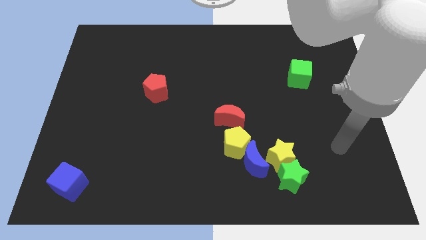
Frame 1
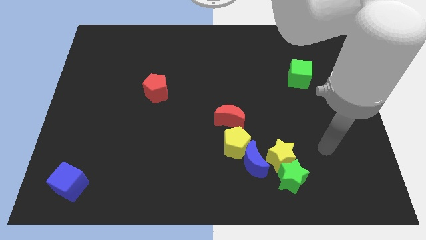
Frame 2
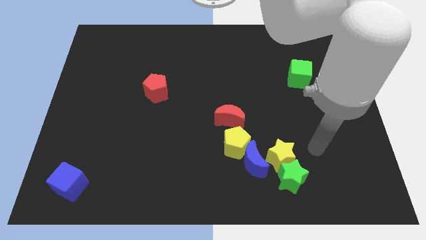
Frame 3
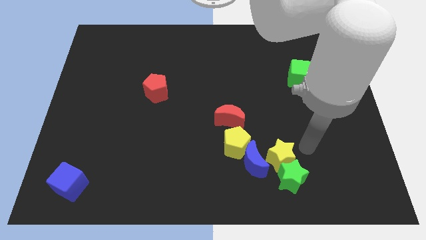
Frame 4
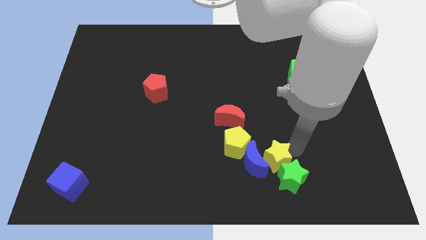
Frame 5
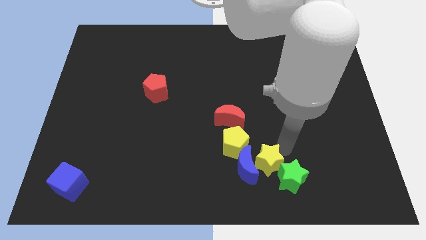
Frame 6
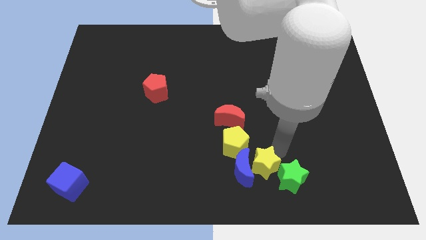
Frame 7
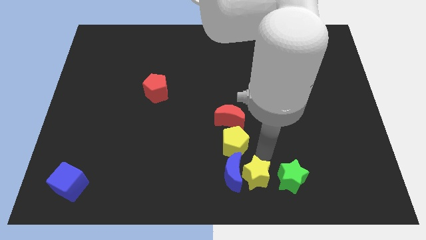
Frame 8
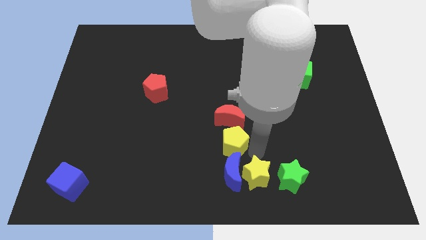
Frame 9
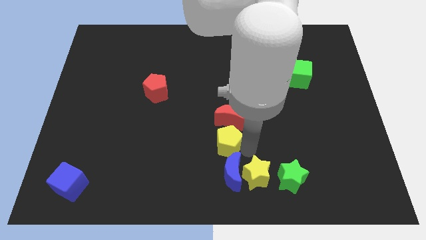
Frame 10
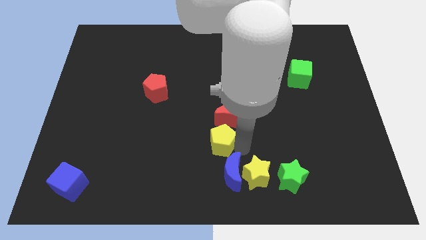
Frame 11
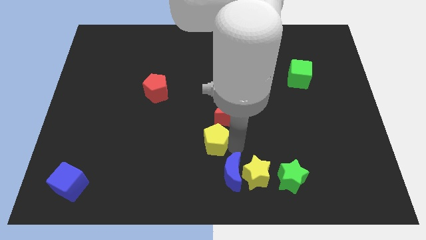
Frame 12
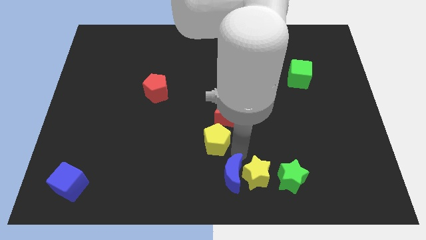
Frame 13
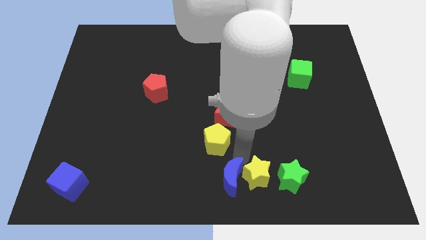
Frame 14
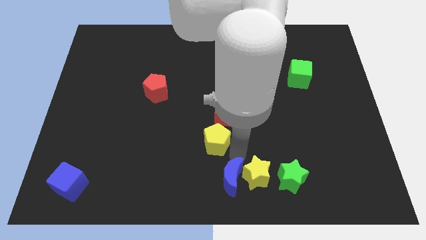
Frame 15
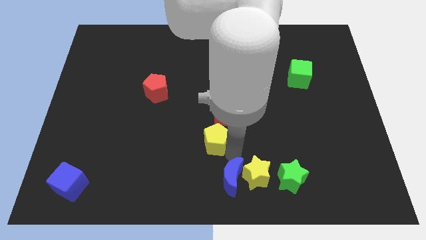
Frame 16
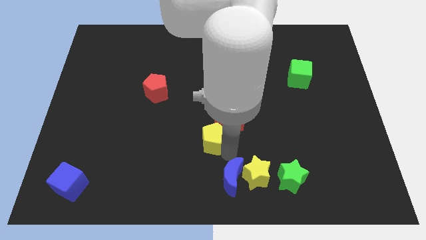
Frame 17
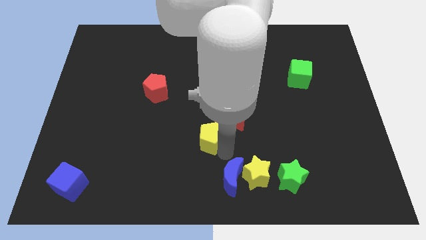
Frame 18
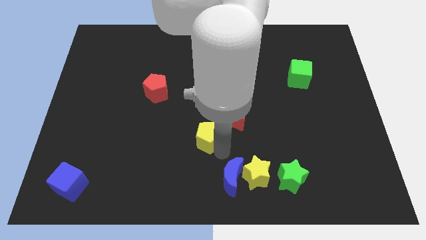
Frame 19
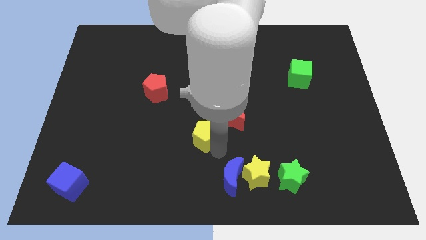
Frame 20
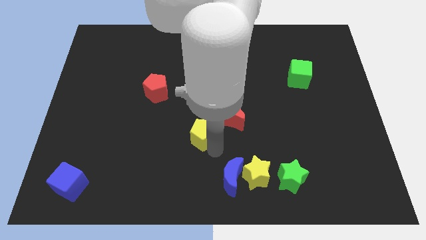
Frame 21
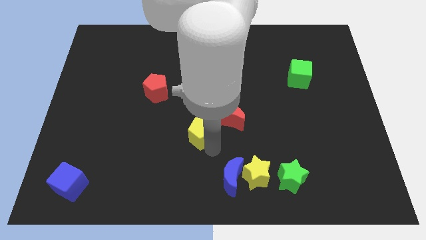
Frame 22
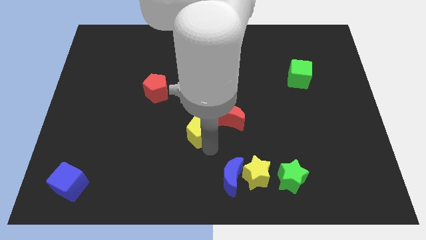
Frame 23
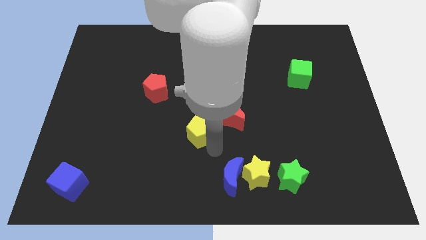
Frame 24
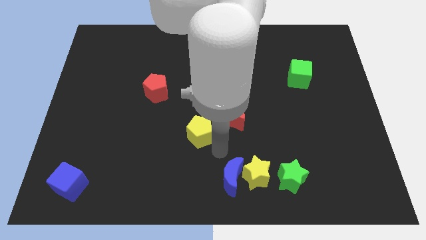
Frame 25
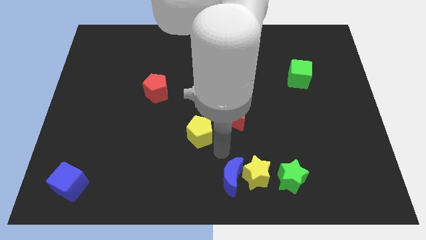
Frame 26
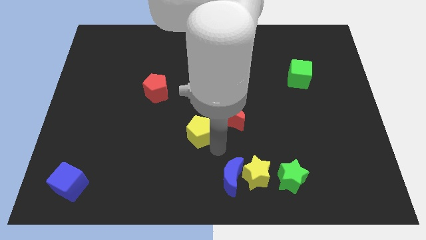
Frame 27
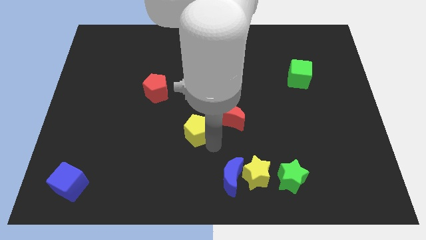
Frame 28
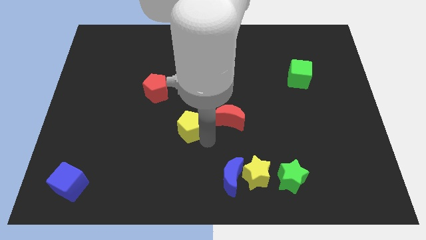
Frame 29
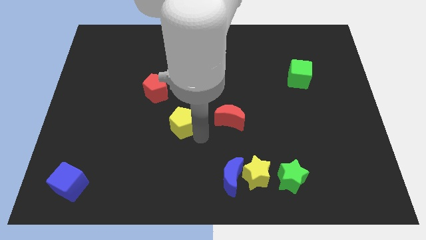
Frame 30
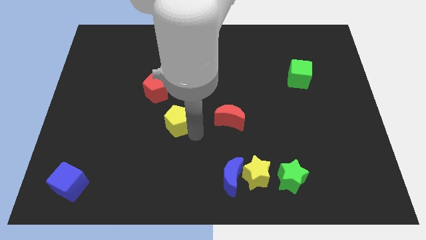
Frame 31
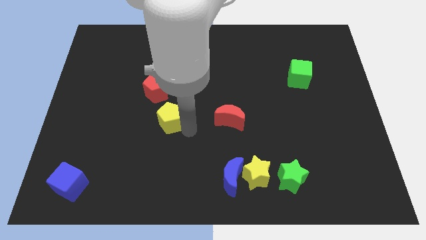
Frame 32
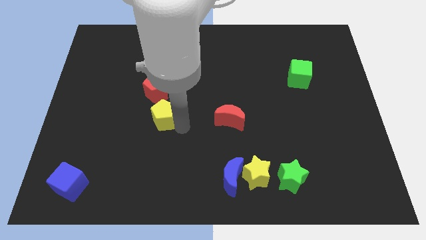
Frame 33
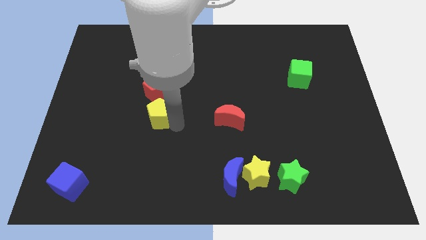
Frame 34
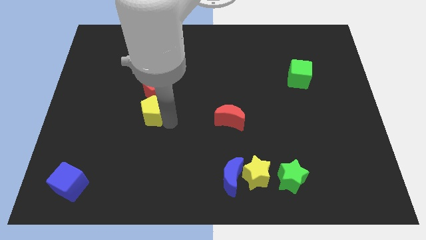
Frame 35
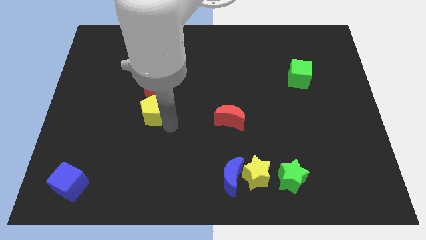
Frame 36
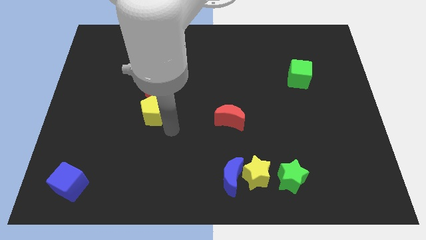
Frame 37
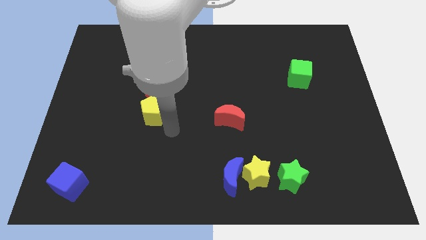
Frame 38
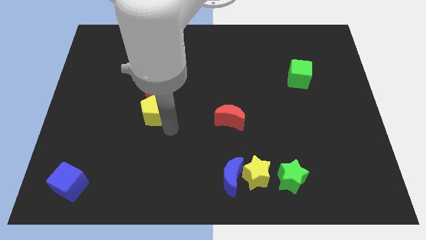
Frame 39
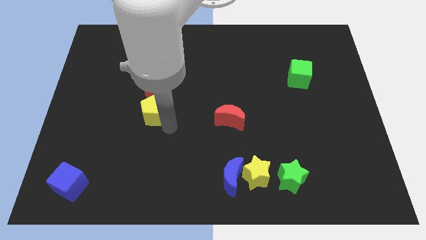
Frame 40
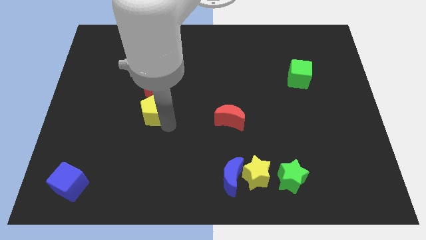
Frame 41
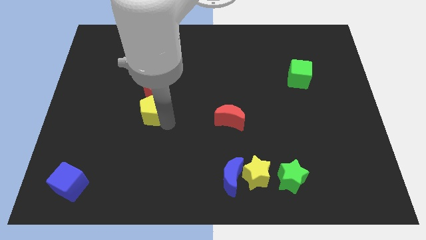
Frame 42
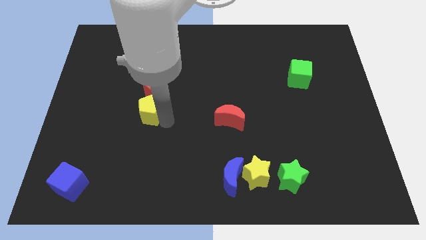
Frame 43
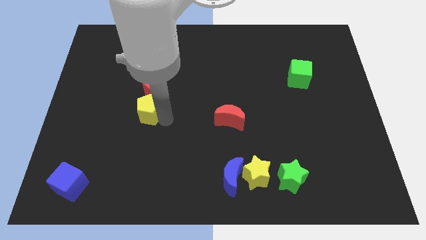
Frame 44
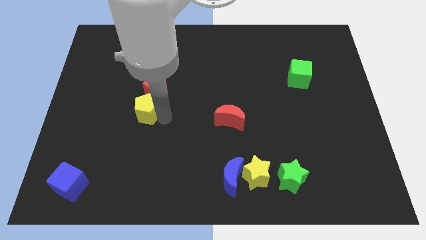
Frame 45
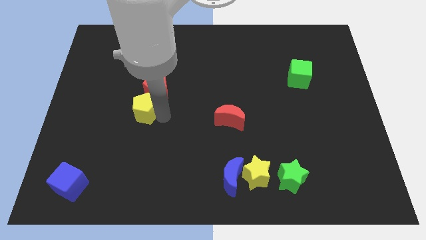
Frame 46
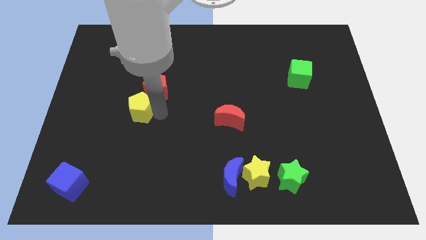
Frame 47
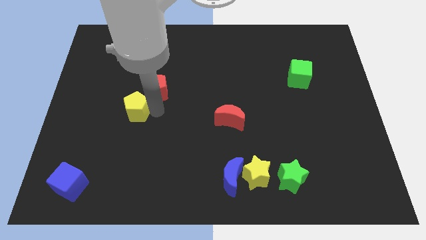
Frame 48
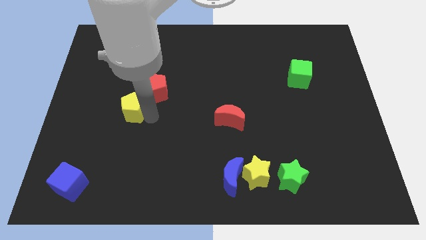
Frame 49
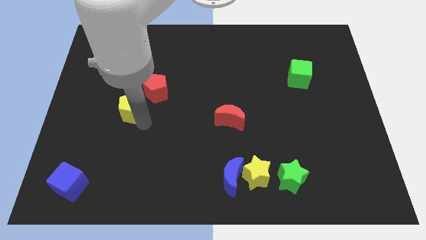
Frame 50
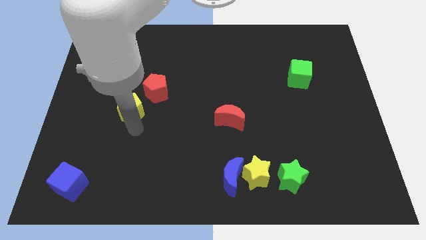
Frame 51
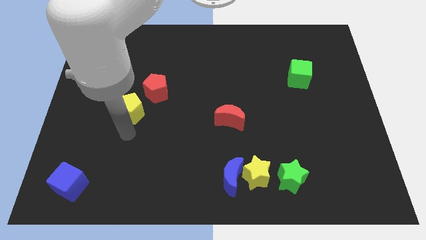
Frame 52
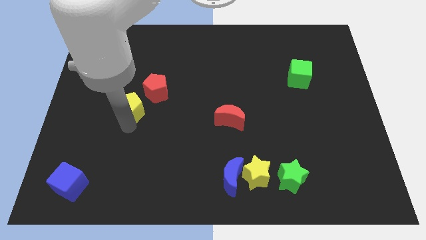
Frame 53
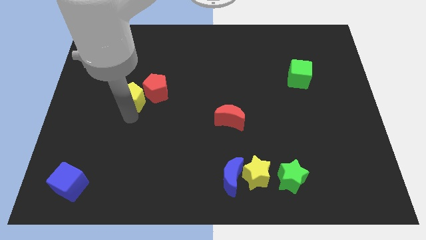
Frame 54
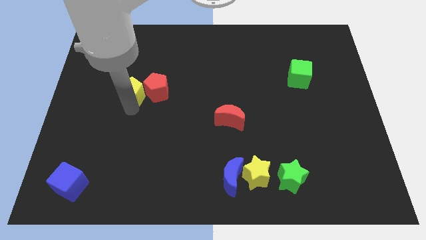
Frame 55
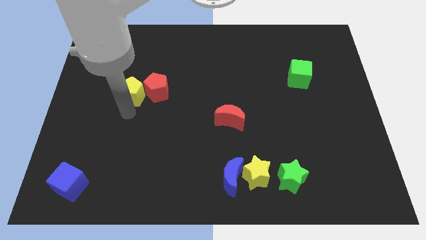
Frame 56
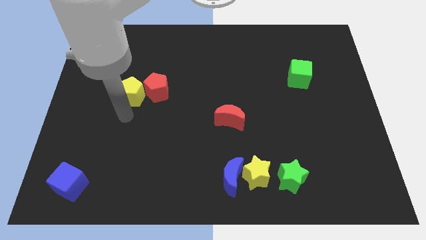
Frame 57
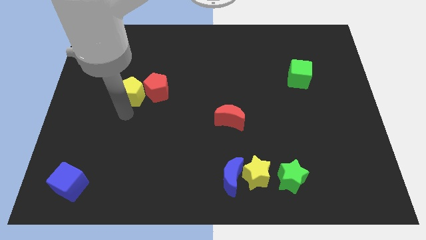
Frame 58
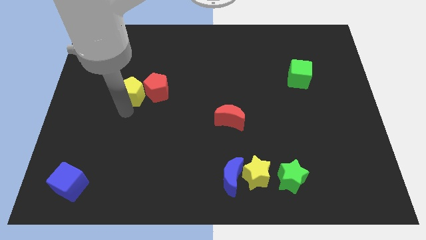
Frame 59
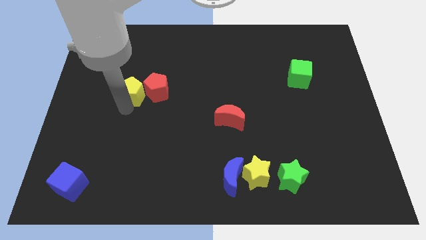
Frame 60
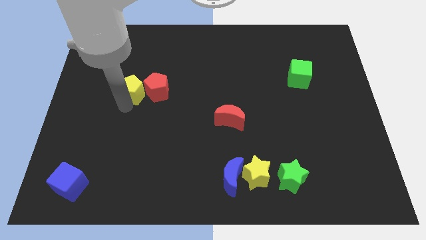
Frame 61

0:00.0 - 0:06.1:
push the yellow pentagon to the top left side of the red pentagon
